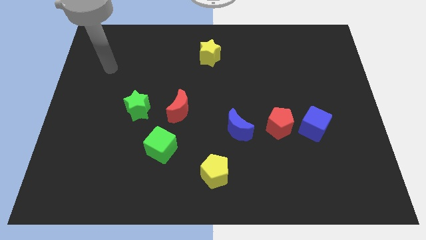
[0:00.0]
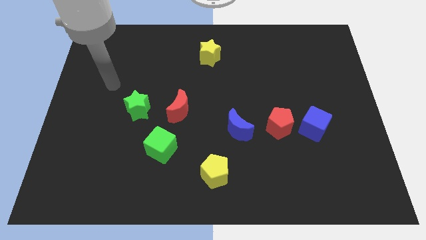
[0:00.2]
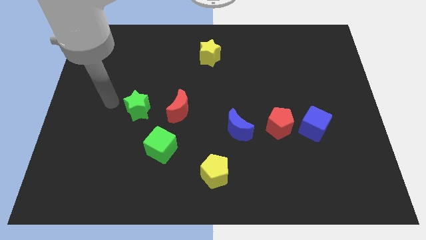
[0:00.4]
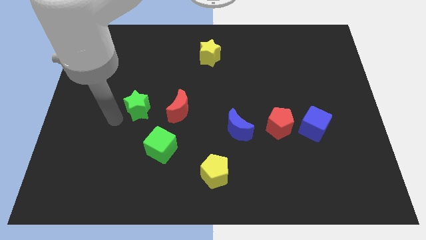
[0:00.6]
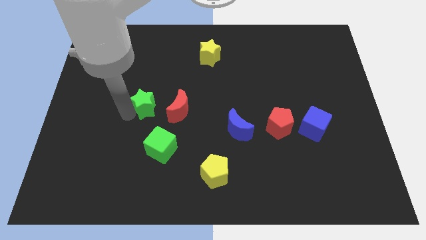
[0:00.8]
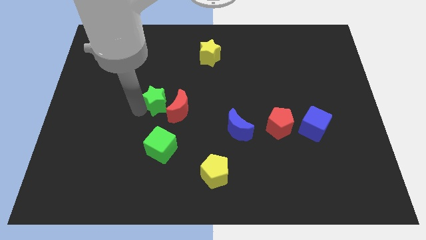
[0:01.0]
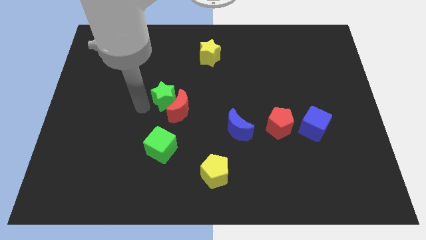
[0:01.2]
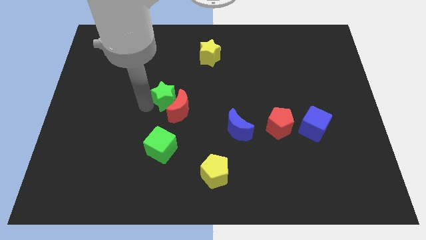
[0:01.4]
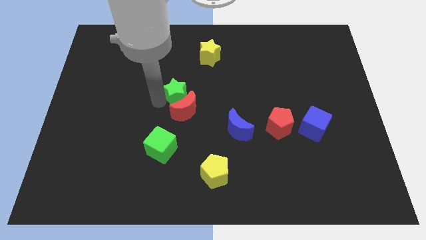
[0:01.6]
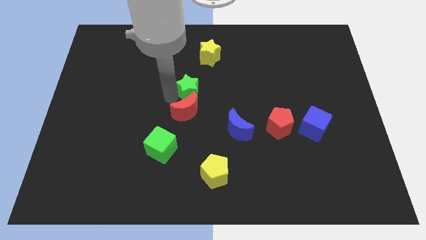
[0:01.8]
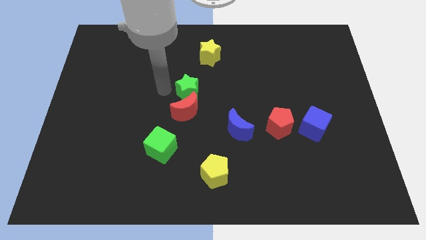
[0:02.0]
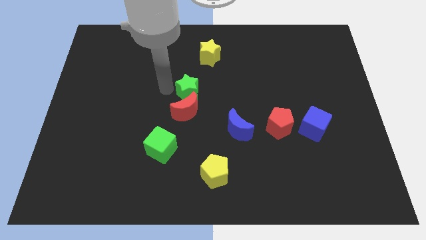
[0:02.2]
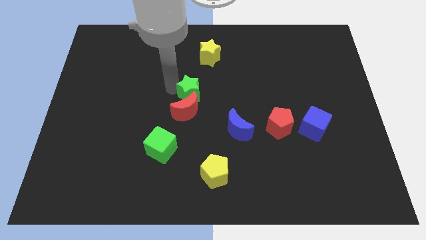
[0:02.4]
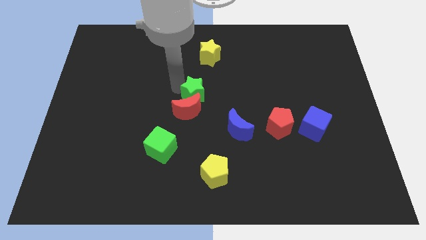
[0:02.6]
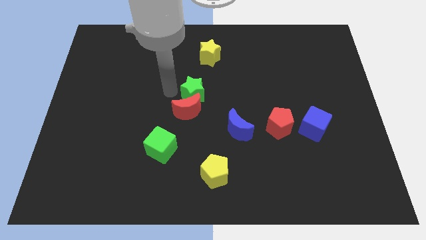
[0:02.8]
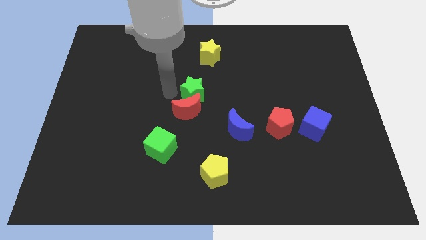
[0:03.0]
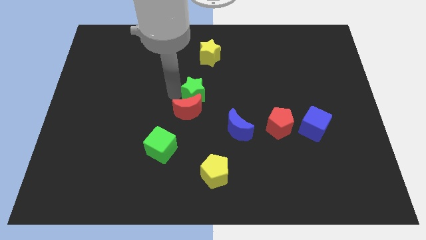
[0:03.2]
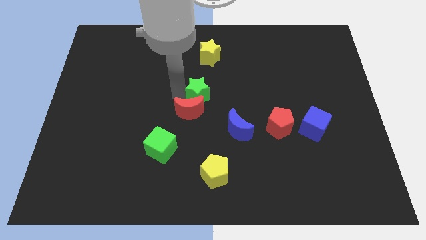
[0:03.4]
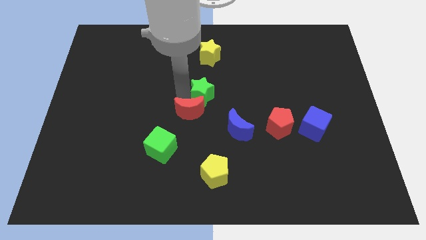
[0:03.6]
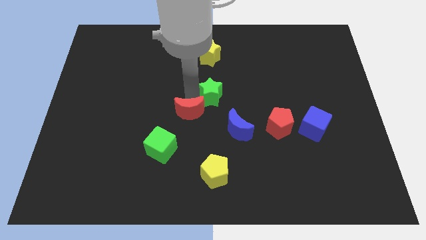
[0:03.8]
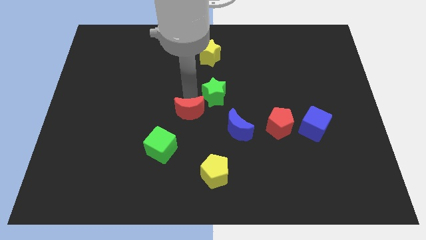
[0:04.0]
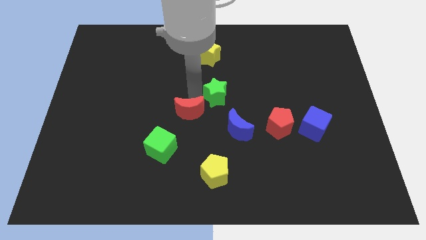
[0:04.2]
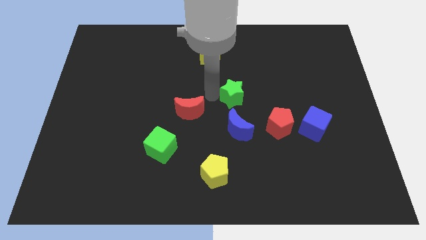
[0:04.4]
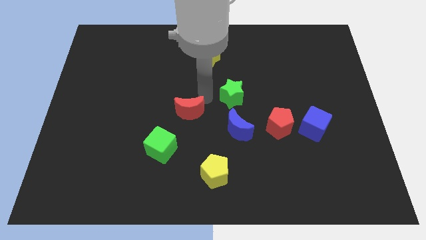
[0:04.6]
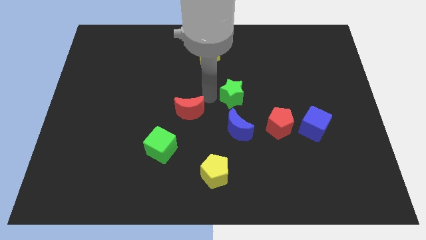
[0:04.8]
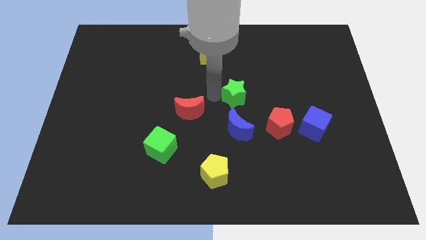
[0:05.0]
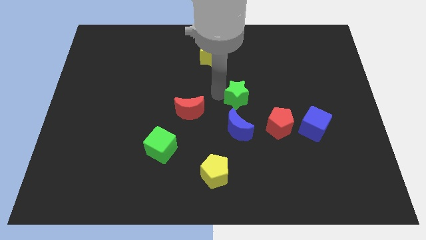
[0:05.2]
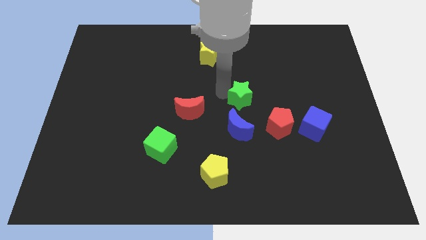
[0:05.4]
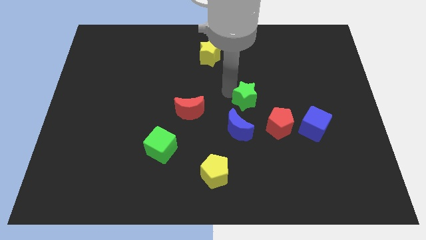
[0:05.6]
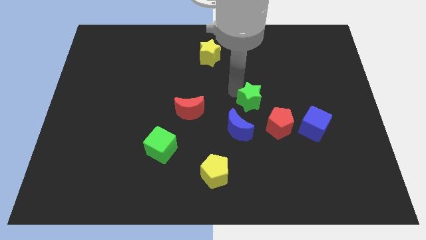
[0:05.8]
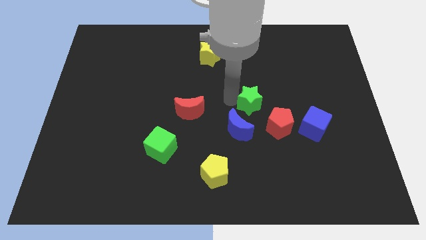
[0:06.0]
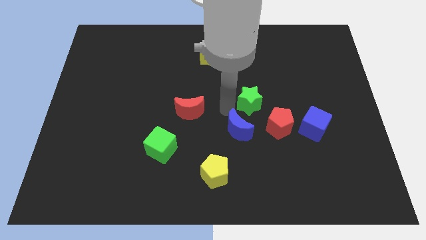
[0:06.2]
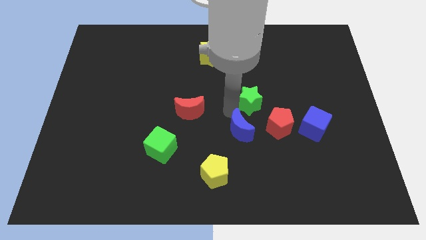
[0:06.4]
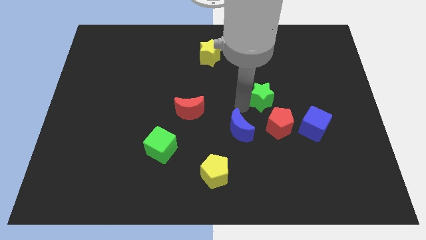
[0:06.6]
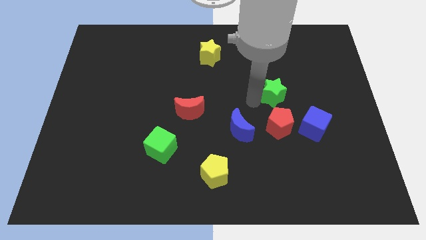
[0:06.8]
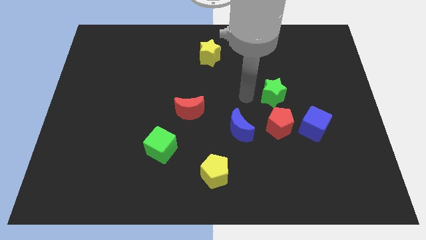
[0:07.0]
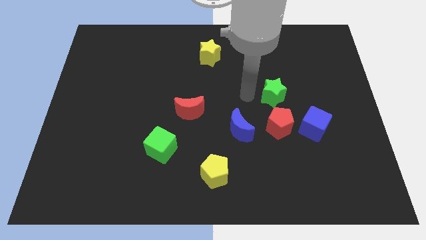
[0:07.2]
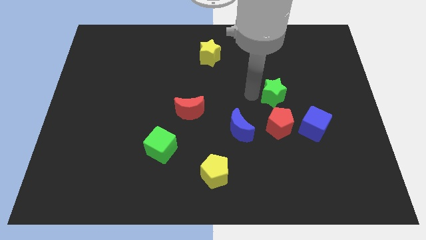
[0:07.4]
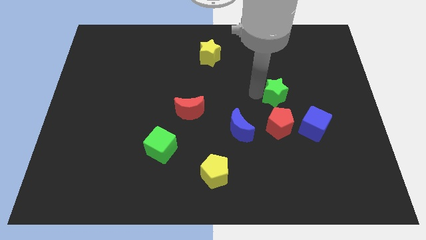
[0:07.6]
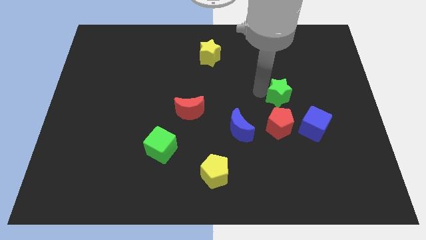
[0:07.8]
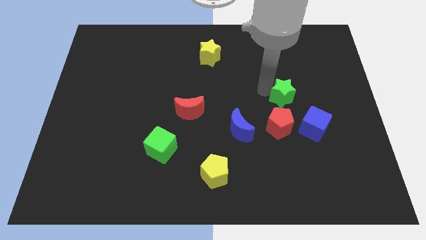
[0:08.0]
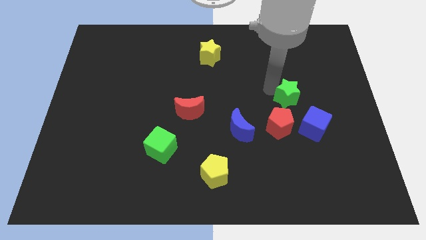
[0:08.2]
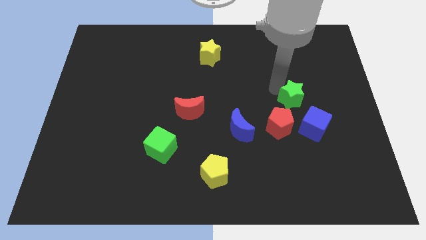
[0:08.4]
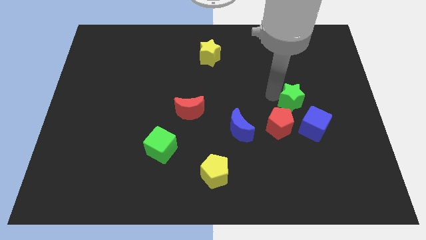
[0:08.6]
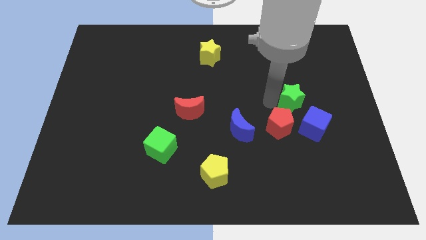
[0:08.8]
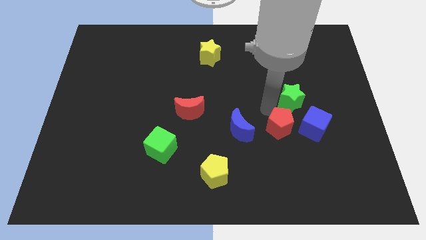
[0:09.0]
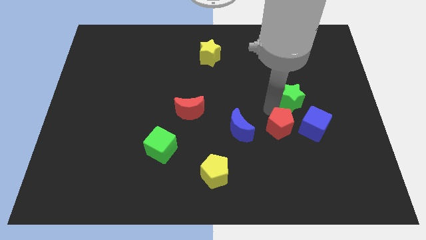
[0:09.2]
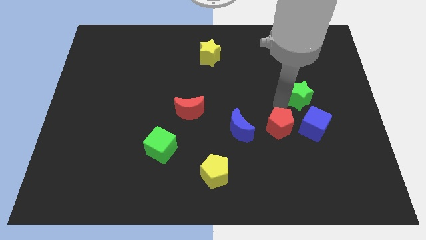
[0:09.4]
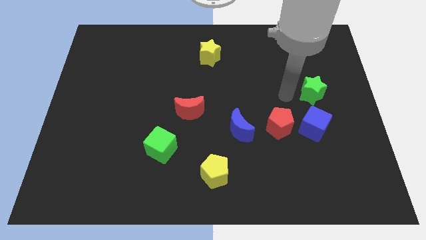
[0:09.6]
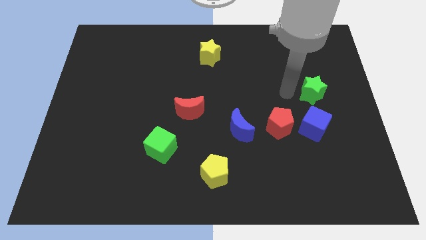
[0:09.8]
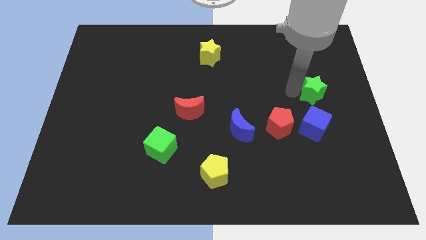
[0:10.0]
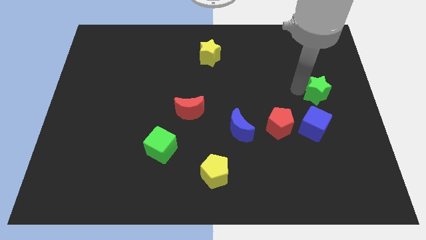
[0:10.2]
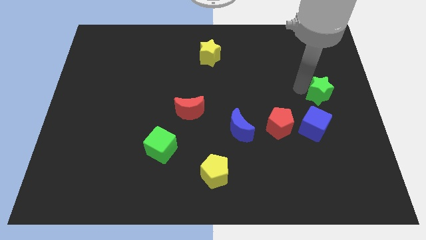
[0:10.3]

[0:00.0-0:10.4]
move the green star to the right side of the board
